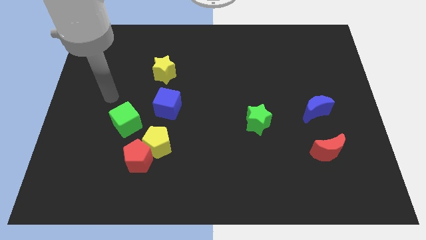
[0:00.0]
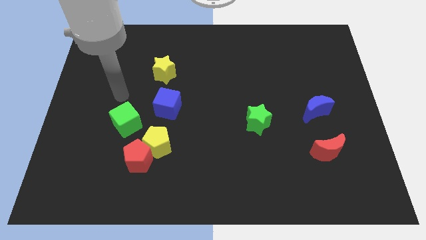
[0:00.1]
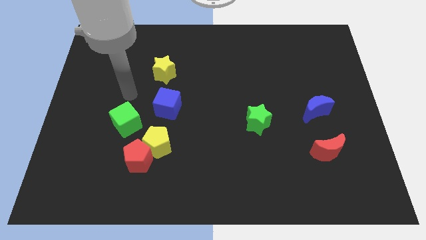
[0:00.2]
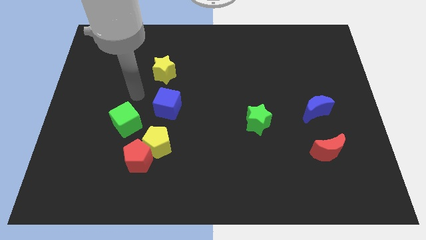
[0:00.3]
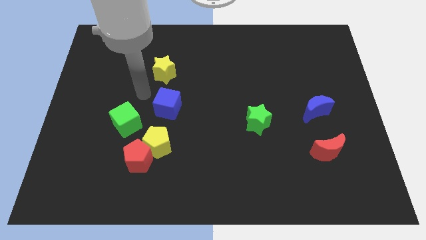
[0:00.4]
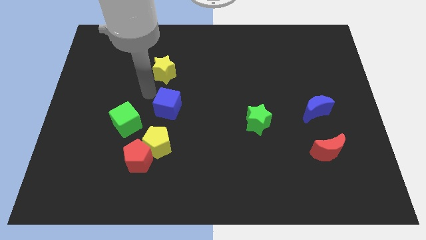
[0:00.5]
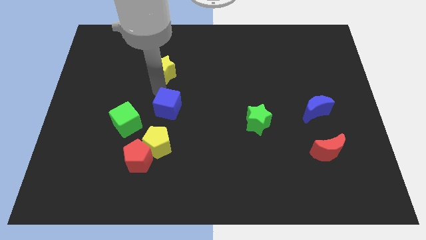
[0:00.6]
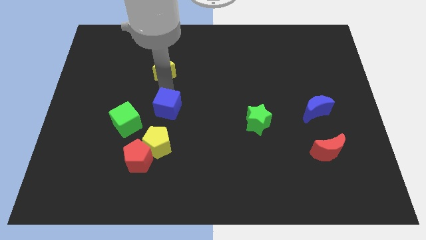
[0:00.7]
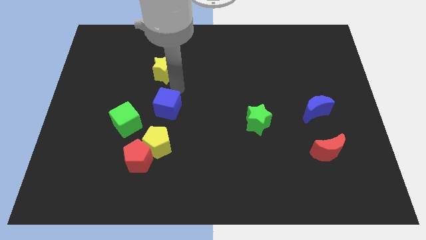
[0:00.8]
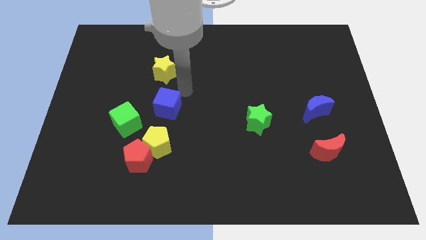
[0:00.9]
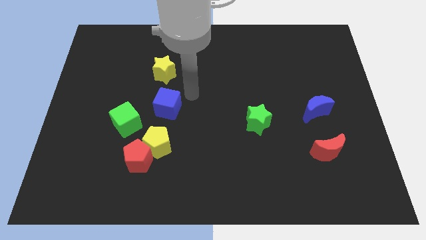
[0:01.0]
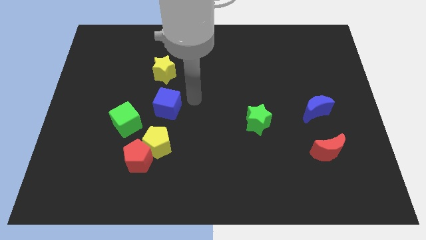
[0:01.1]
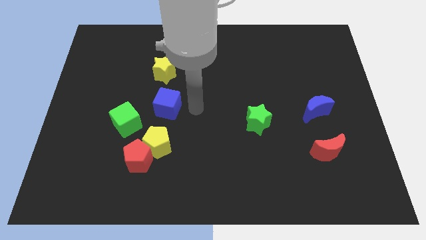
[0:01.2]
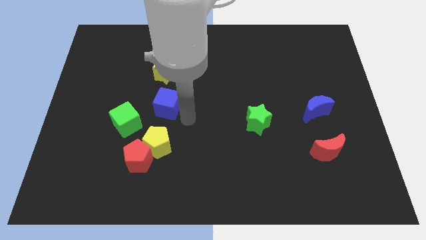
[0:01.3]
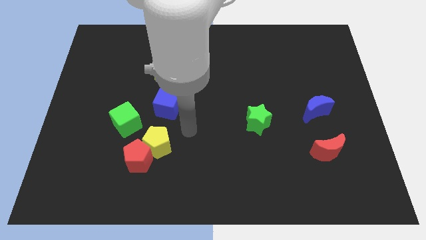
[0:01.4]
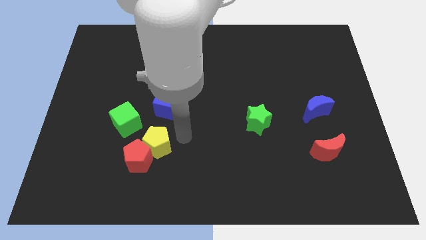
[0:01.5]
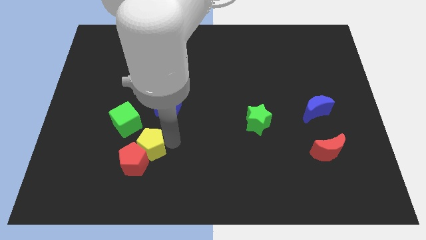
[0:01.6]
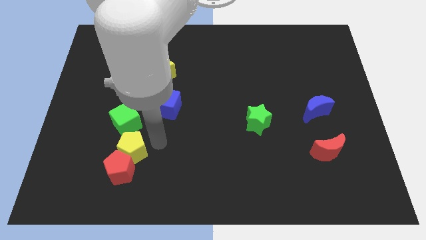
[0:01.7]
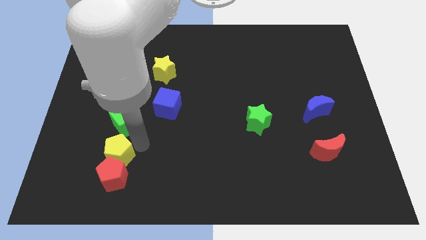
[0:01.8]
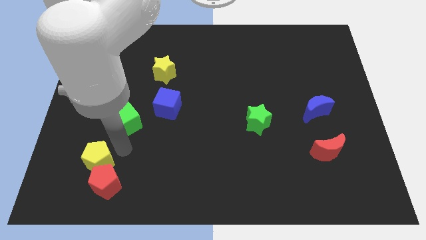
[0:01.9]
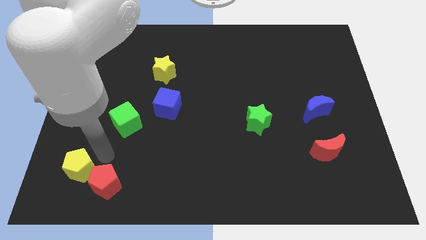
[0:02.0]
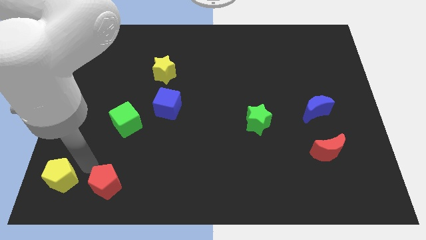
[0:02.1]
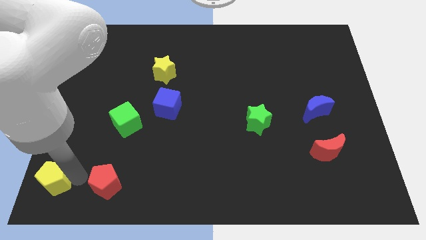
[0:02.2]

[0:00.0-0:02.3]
move the red pentagon away from the yellow pentagon

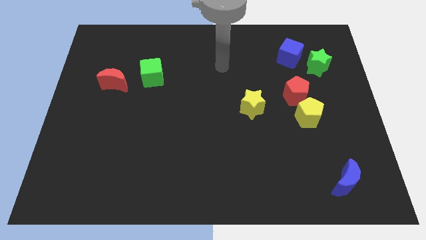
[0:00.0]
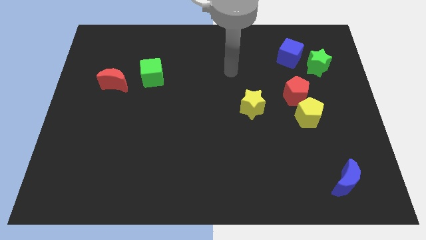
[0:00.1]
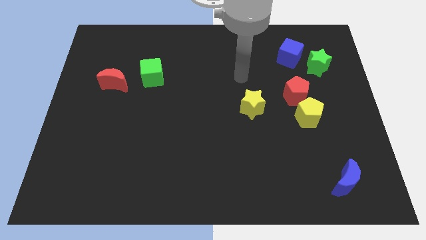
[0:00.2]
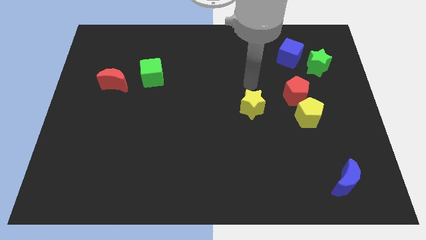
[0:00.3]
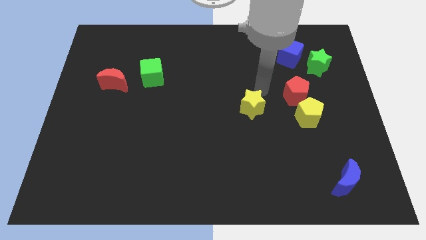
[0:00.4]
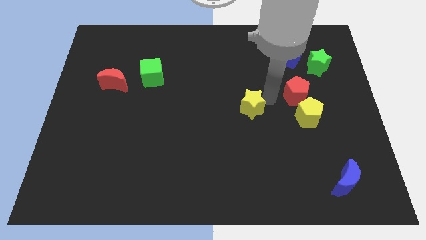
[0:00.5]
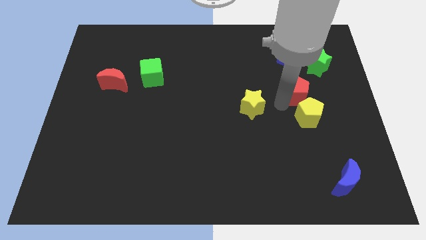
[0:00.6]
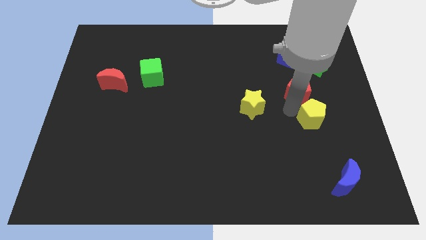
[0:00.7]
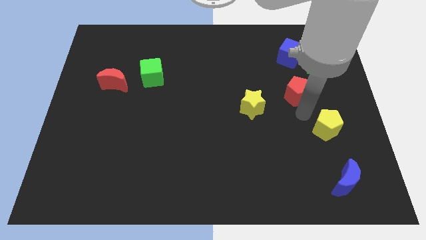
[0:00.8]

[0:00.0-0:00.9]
separate the red pentagon from the yellow pentagon

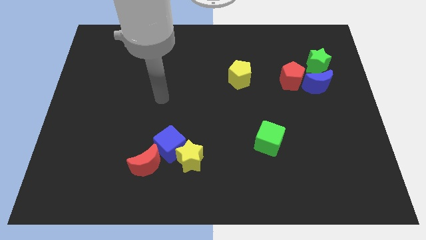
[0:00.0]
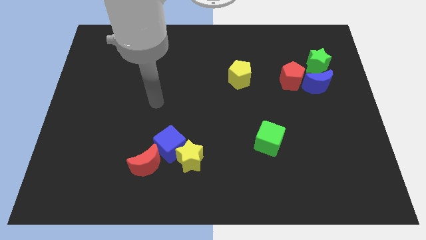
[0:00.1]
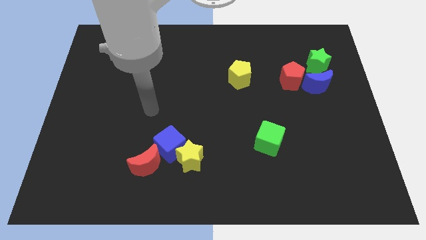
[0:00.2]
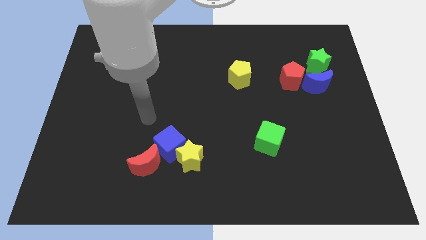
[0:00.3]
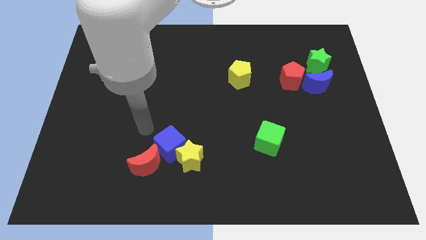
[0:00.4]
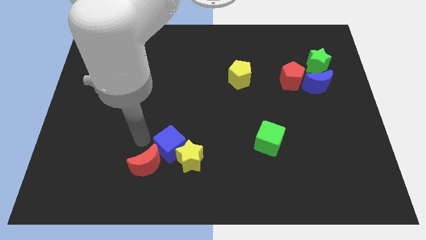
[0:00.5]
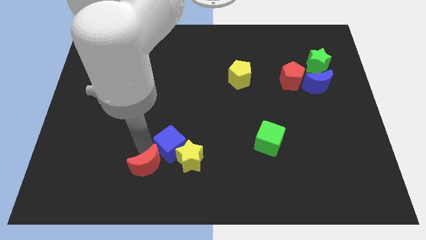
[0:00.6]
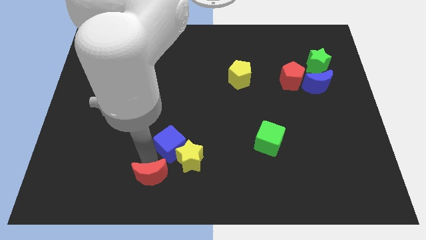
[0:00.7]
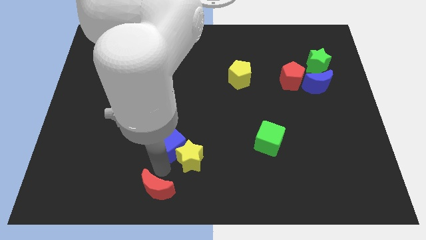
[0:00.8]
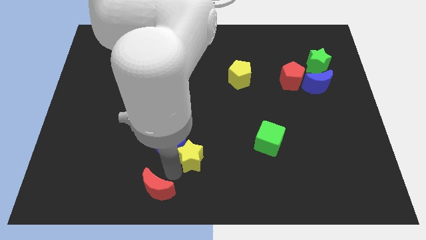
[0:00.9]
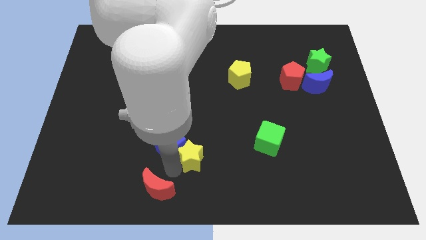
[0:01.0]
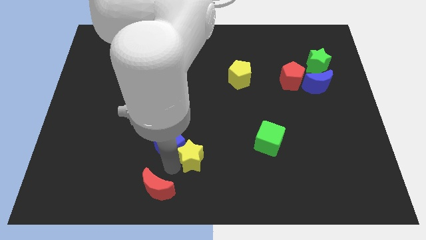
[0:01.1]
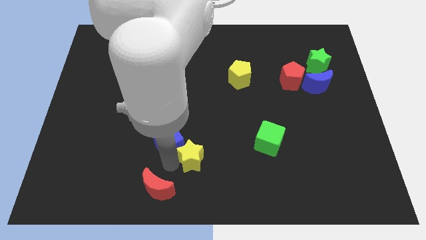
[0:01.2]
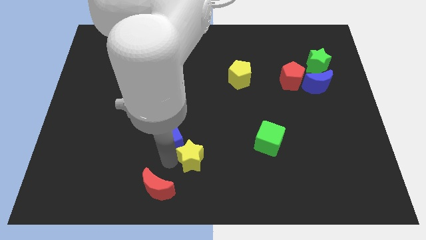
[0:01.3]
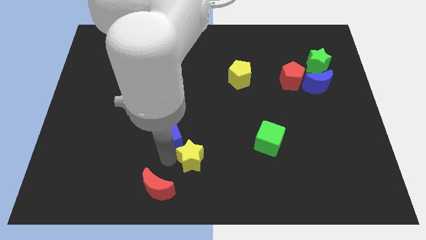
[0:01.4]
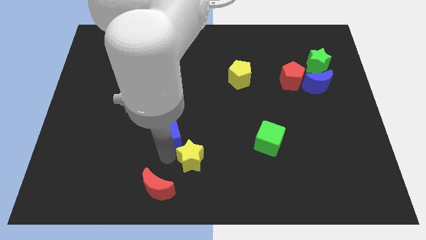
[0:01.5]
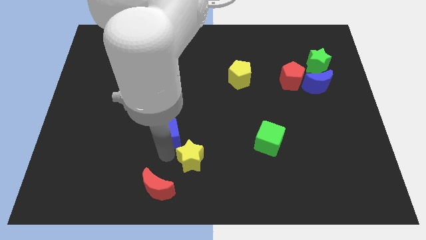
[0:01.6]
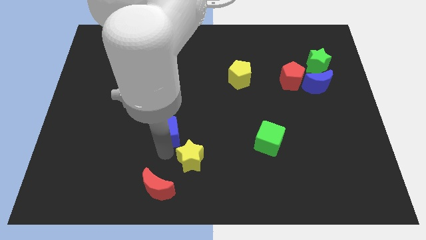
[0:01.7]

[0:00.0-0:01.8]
separate the blue cube from the yellow star and red moon

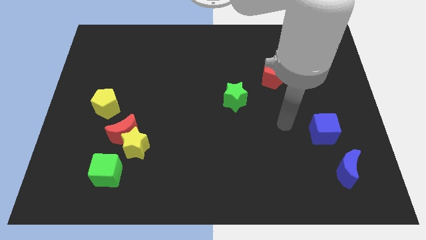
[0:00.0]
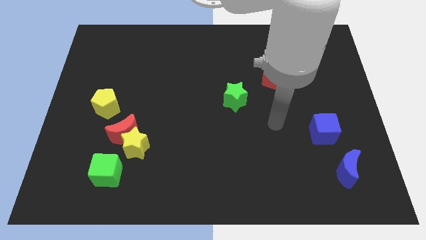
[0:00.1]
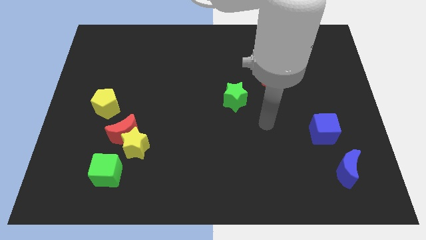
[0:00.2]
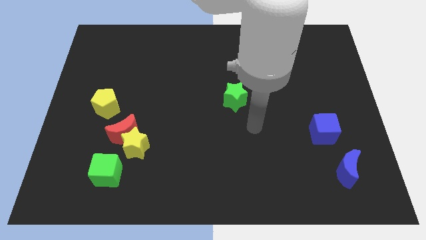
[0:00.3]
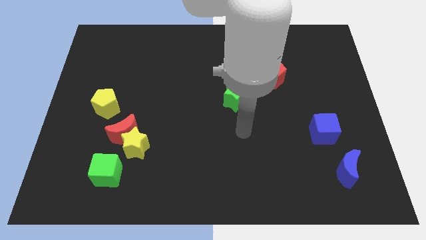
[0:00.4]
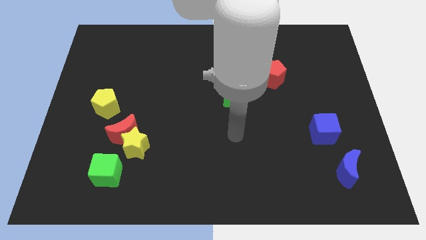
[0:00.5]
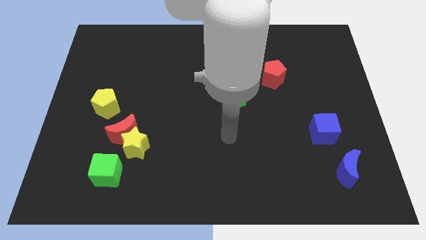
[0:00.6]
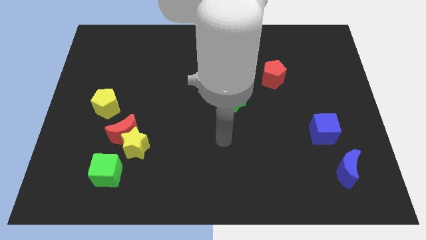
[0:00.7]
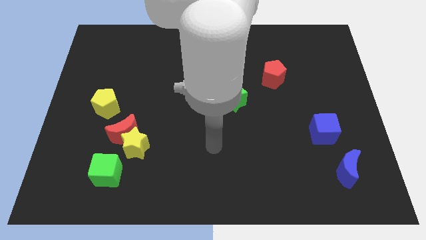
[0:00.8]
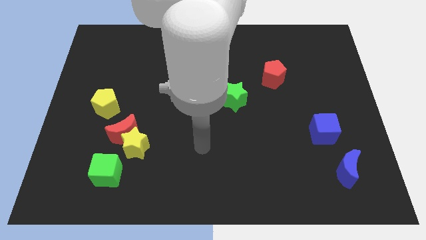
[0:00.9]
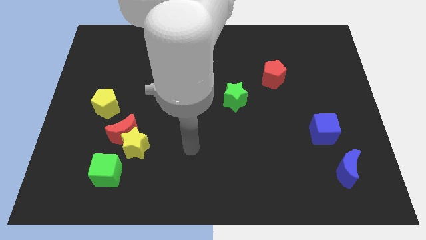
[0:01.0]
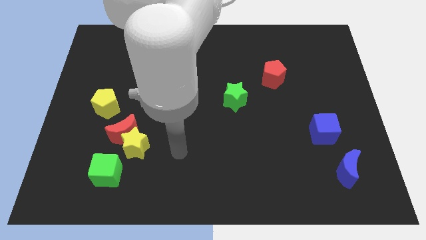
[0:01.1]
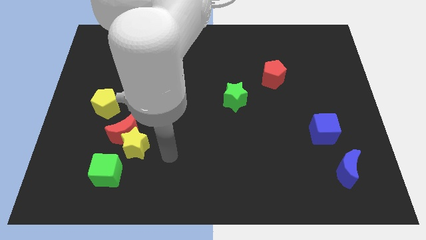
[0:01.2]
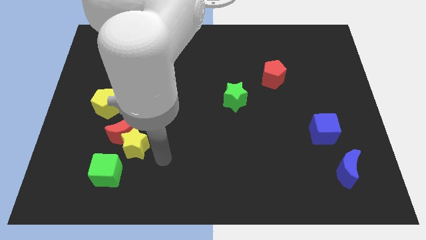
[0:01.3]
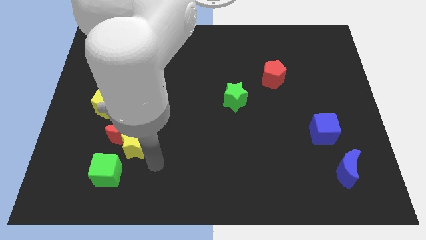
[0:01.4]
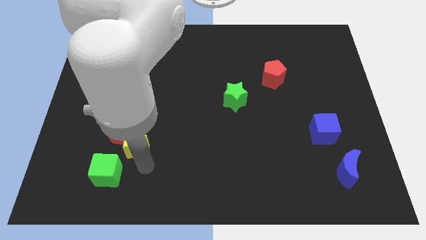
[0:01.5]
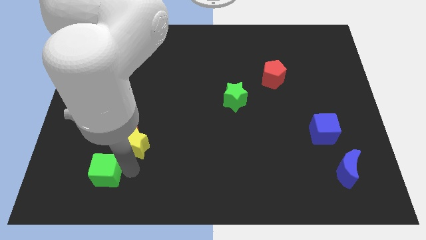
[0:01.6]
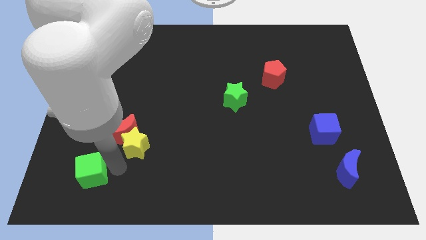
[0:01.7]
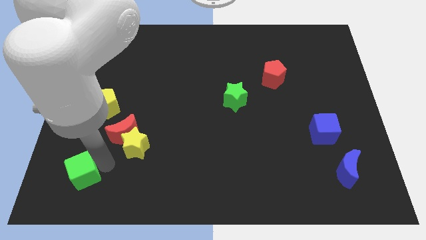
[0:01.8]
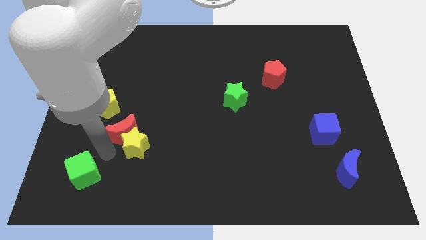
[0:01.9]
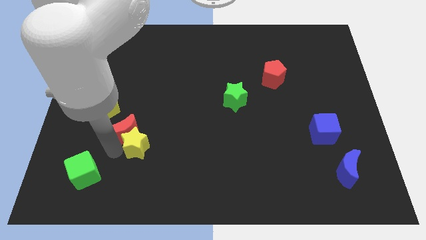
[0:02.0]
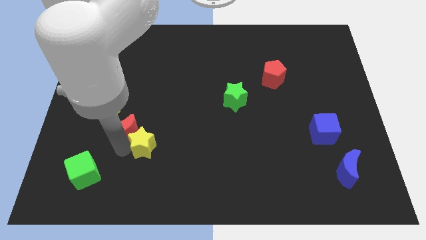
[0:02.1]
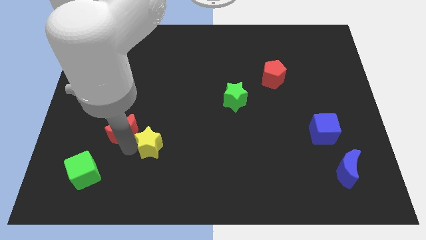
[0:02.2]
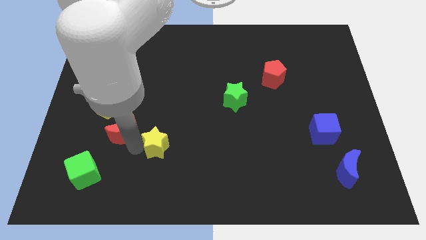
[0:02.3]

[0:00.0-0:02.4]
move the yellow star away from the red moon and green cube

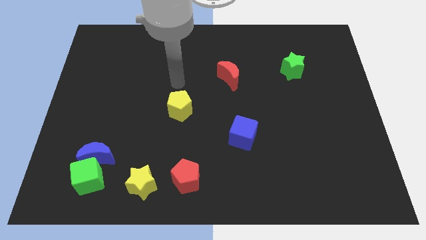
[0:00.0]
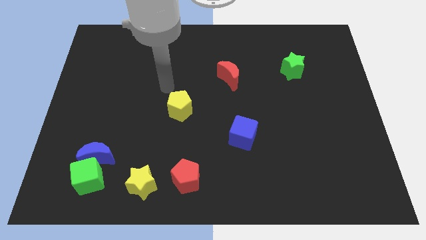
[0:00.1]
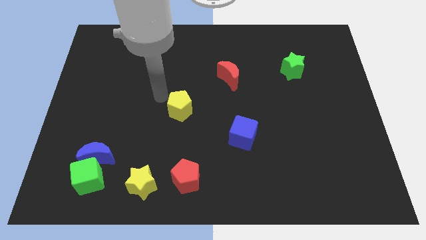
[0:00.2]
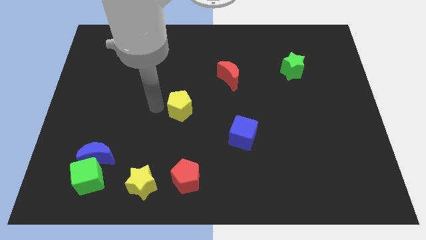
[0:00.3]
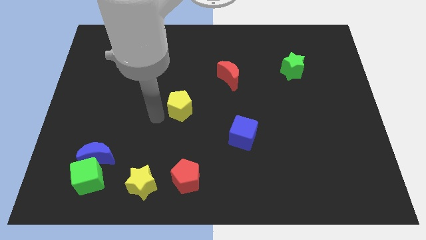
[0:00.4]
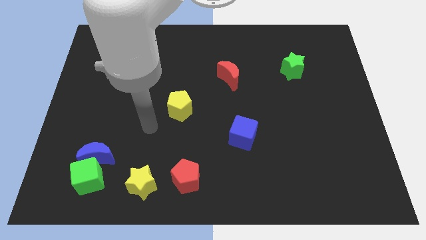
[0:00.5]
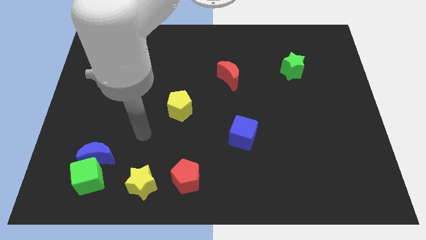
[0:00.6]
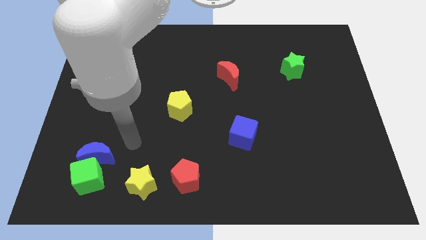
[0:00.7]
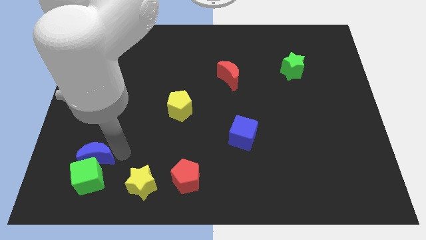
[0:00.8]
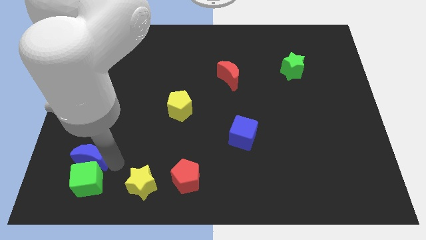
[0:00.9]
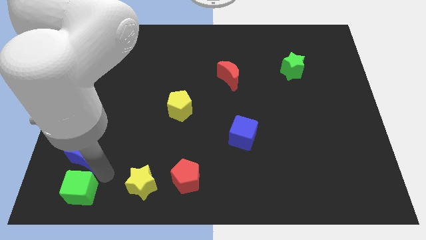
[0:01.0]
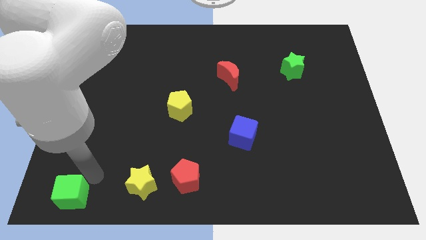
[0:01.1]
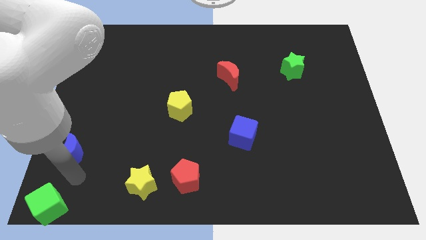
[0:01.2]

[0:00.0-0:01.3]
pull the blue moon apart from the green cube

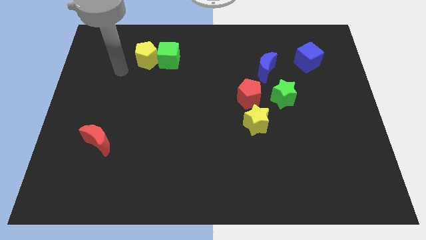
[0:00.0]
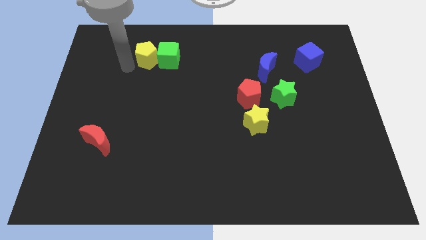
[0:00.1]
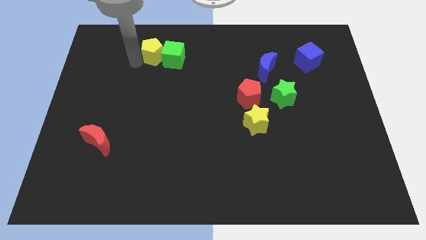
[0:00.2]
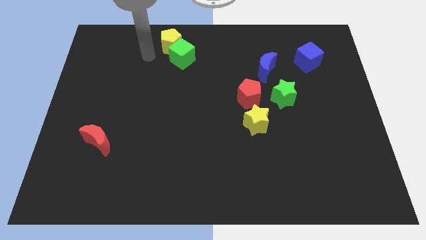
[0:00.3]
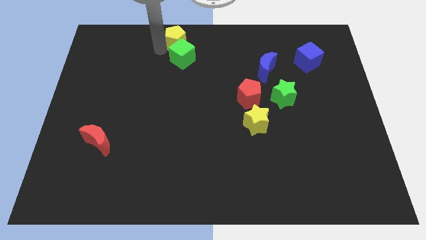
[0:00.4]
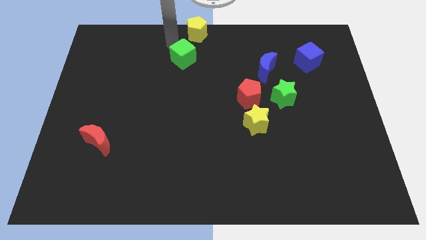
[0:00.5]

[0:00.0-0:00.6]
move the green cube away from the yellow pentagon
